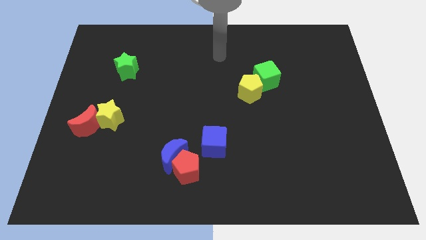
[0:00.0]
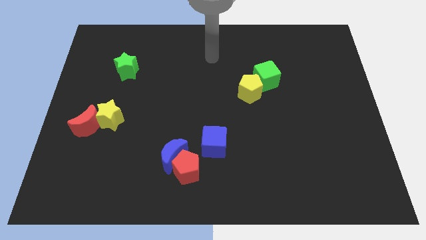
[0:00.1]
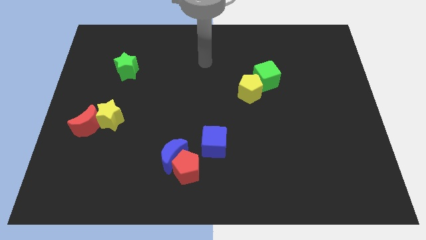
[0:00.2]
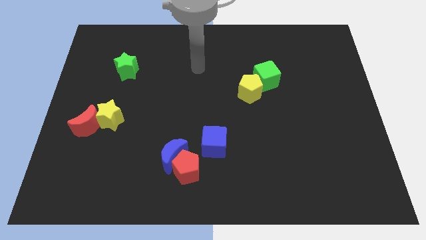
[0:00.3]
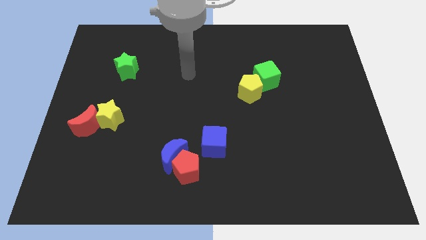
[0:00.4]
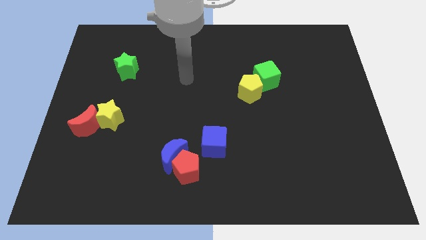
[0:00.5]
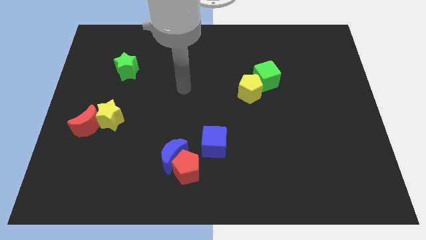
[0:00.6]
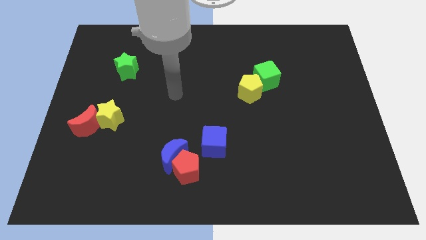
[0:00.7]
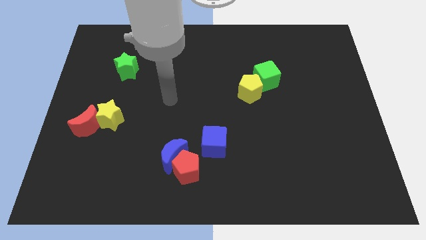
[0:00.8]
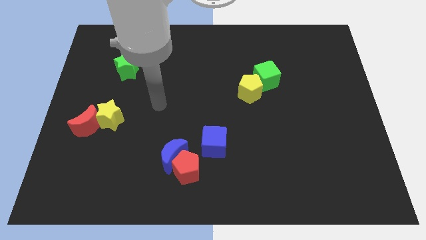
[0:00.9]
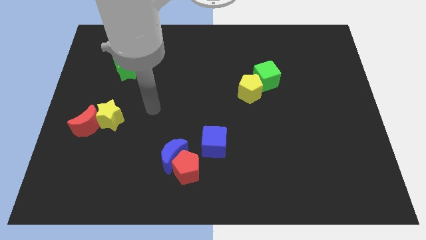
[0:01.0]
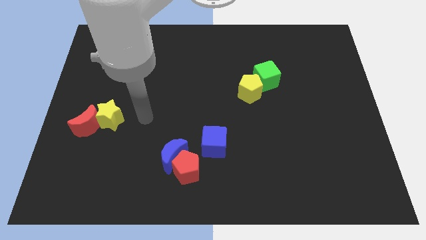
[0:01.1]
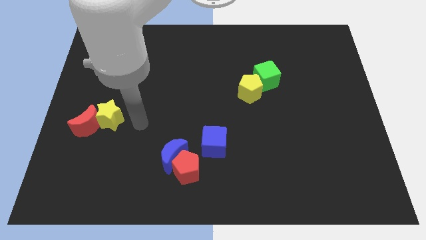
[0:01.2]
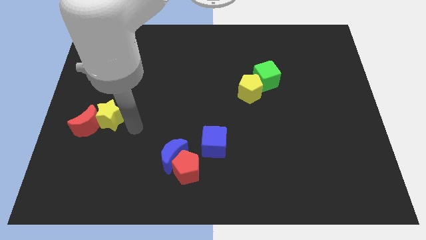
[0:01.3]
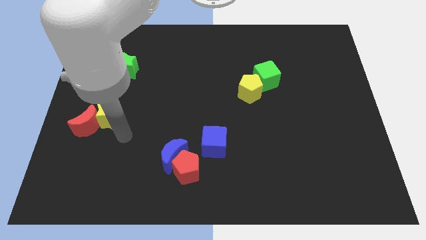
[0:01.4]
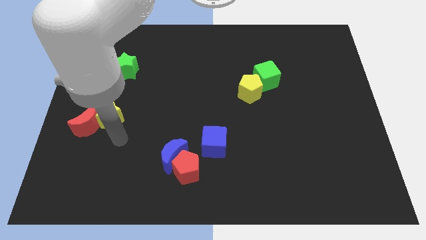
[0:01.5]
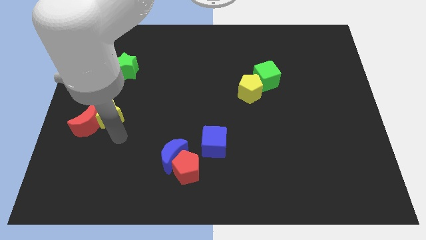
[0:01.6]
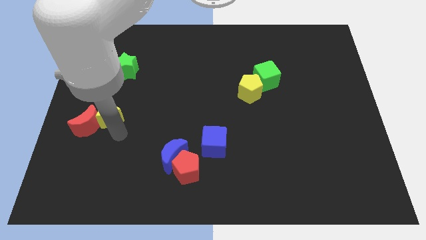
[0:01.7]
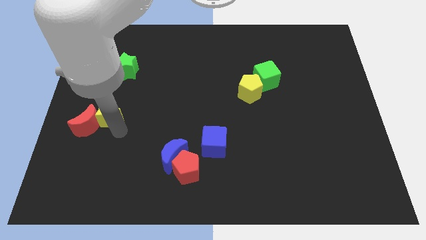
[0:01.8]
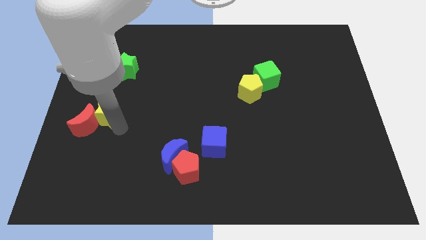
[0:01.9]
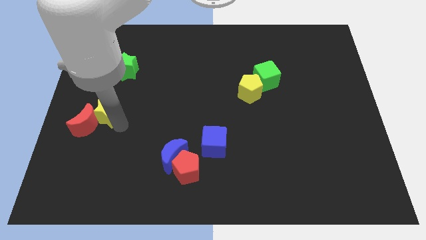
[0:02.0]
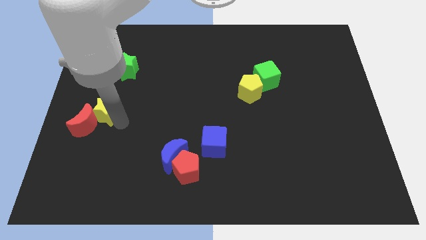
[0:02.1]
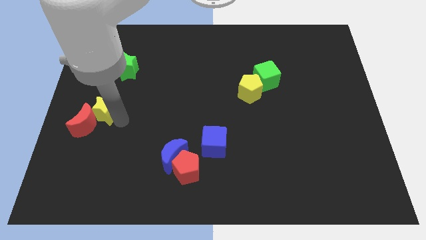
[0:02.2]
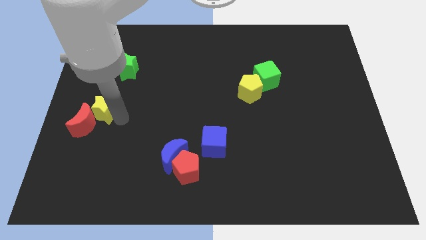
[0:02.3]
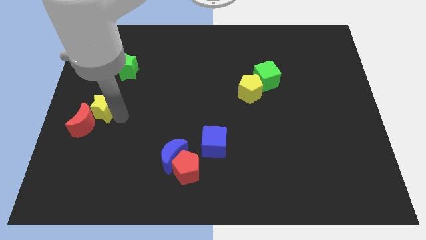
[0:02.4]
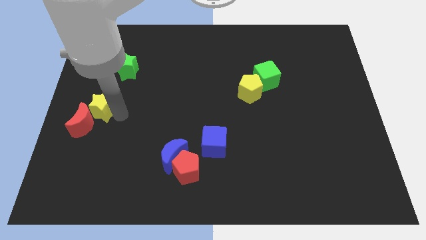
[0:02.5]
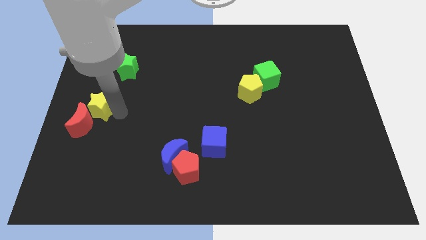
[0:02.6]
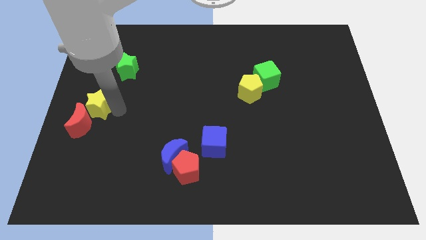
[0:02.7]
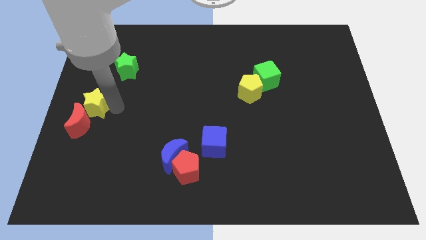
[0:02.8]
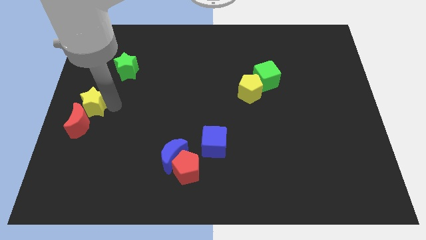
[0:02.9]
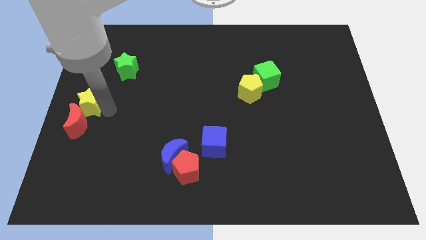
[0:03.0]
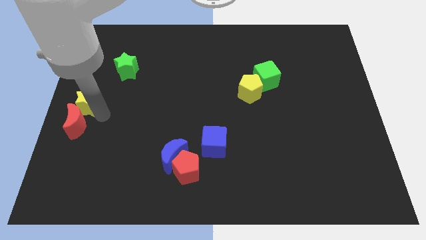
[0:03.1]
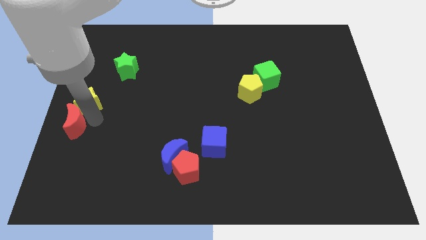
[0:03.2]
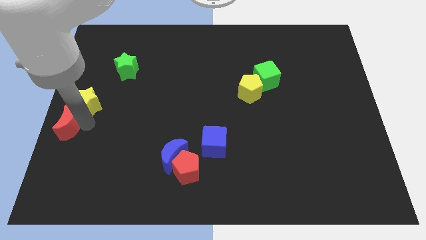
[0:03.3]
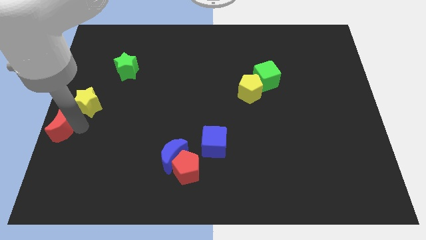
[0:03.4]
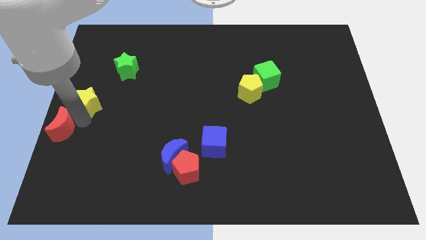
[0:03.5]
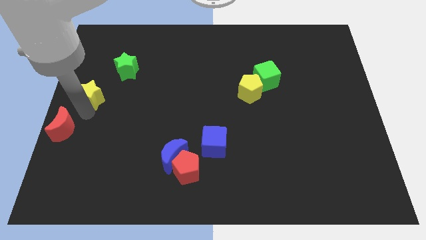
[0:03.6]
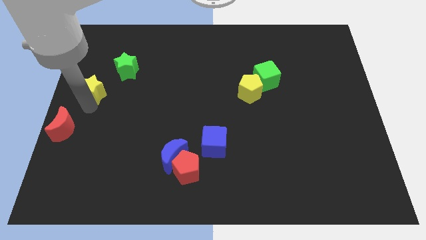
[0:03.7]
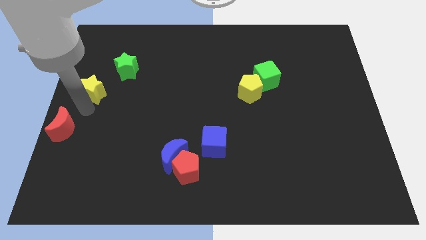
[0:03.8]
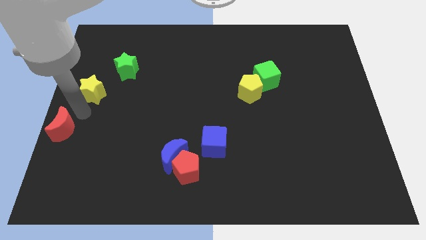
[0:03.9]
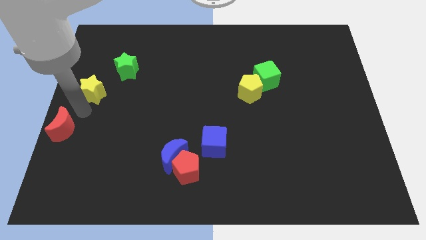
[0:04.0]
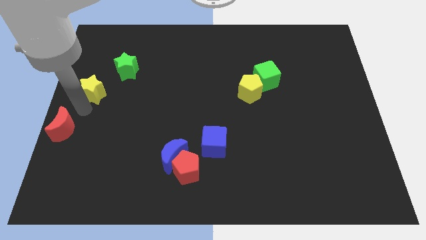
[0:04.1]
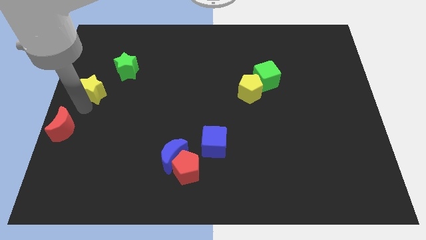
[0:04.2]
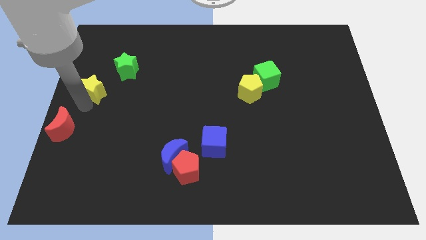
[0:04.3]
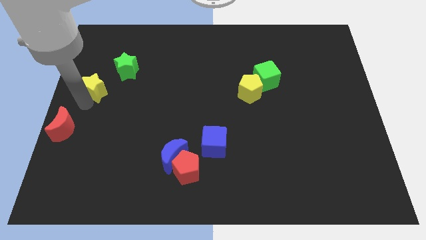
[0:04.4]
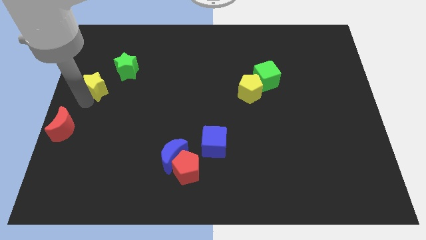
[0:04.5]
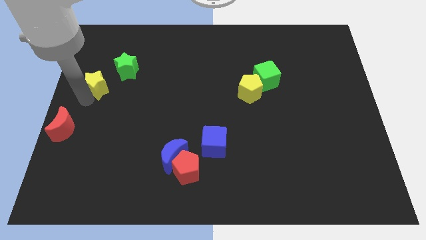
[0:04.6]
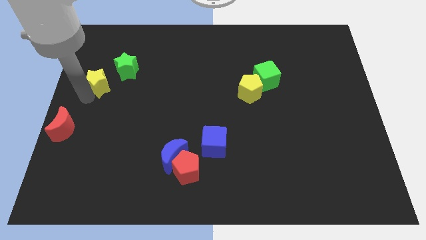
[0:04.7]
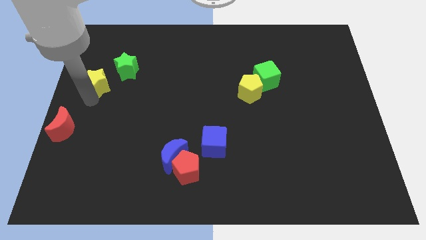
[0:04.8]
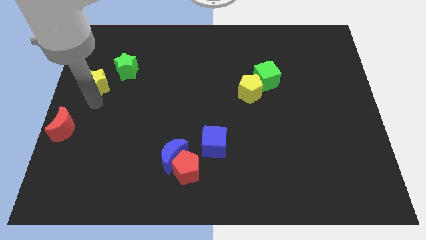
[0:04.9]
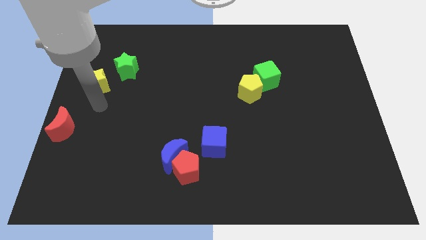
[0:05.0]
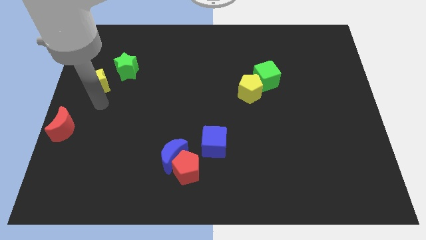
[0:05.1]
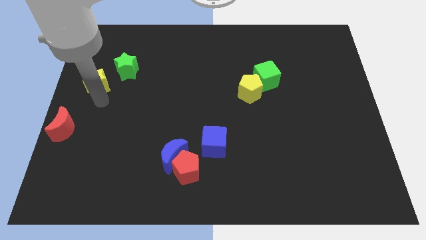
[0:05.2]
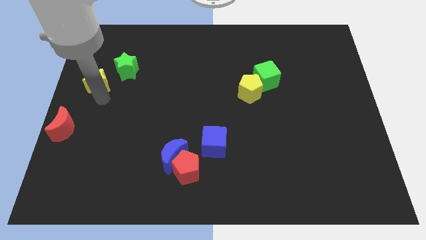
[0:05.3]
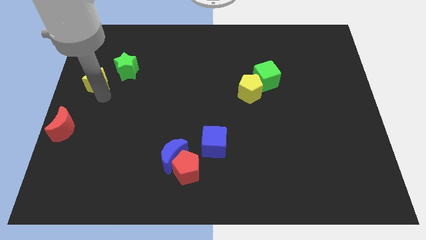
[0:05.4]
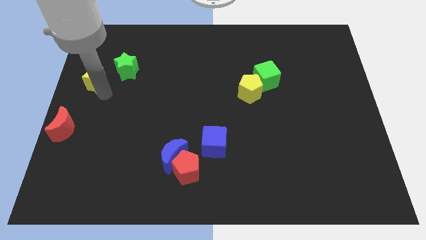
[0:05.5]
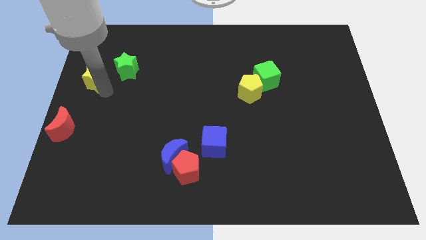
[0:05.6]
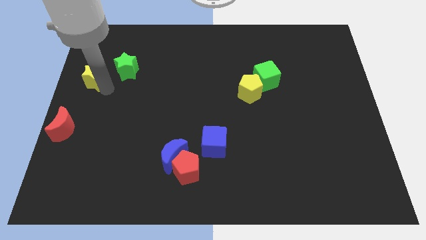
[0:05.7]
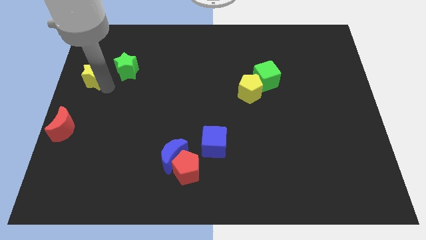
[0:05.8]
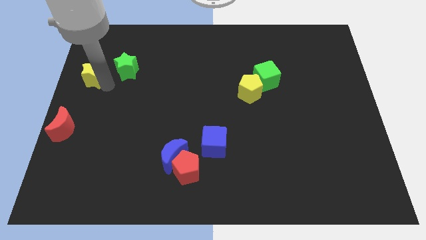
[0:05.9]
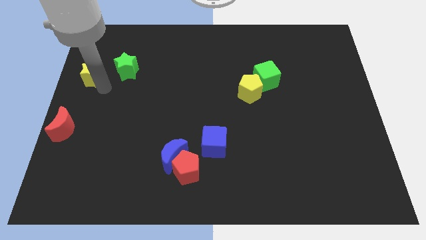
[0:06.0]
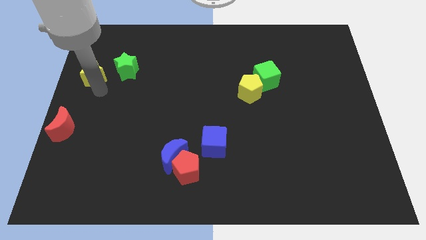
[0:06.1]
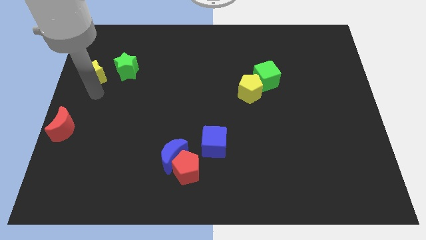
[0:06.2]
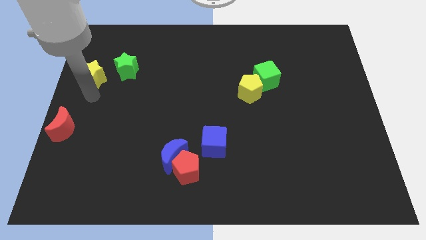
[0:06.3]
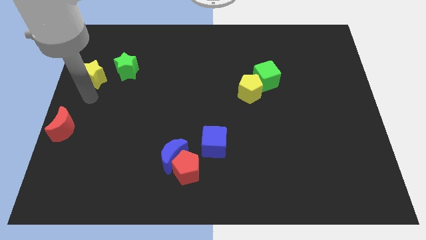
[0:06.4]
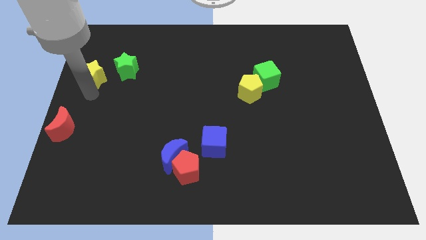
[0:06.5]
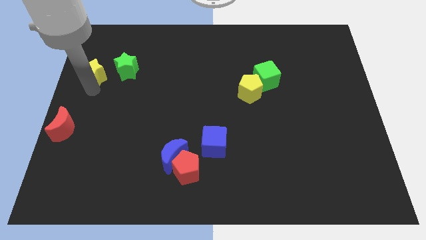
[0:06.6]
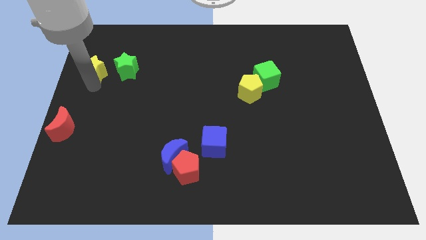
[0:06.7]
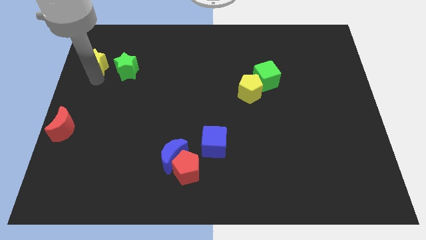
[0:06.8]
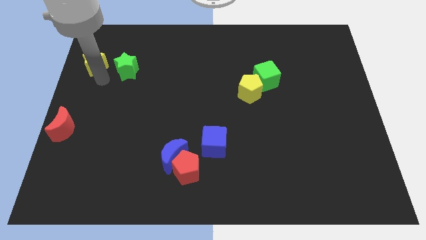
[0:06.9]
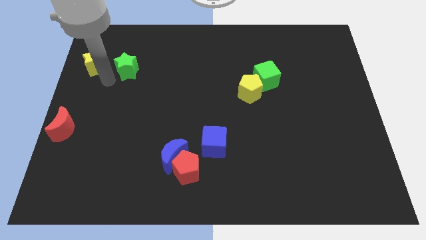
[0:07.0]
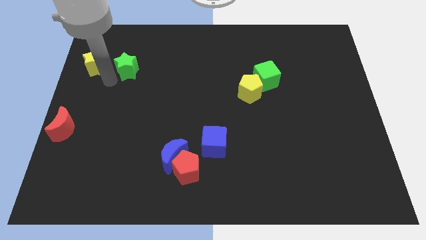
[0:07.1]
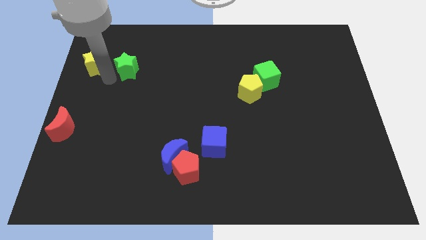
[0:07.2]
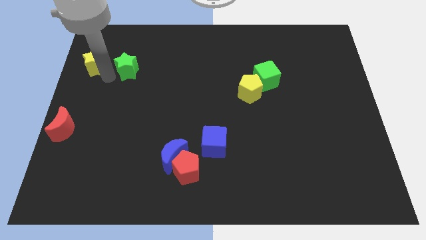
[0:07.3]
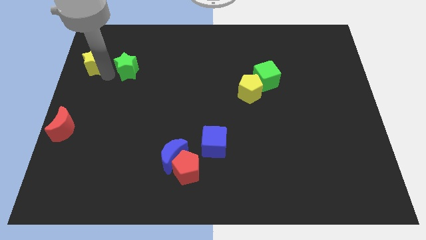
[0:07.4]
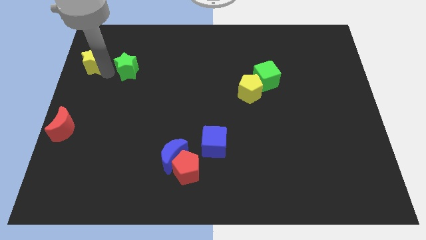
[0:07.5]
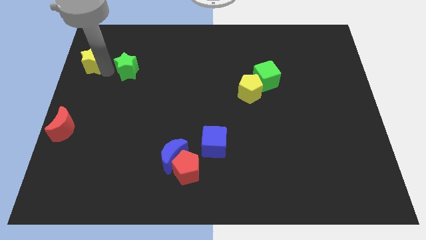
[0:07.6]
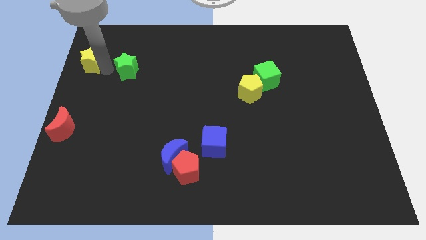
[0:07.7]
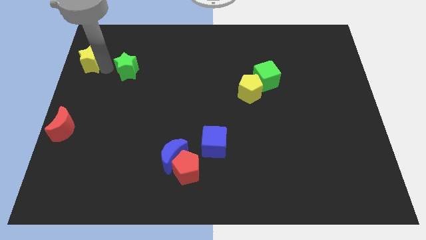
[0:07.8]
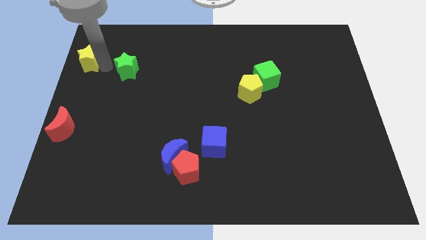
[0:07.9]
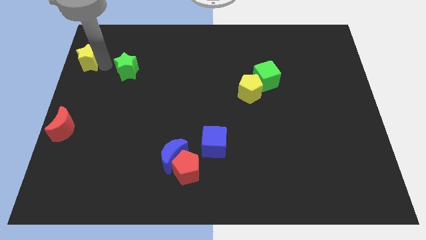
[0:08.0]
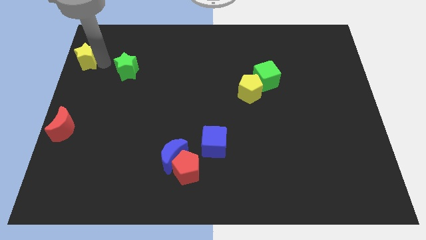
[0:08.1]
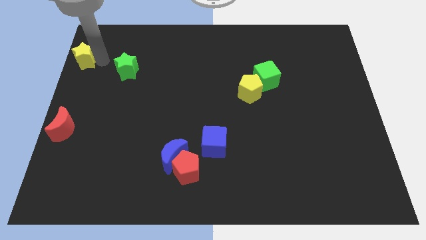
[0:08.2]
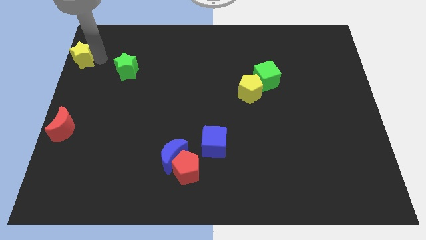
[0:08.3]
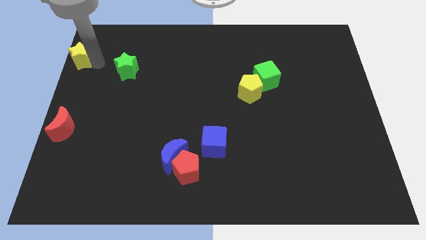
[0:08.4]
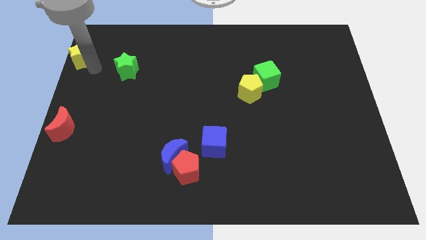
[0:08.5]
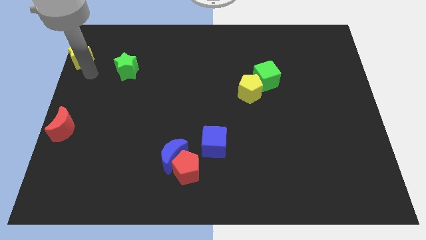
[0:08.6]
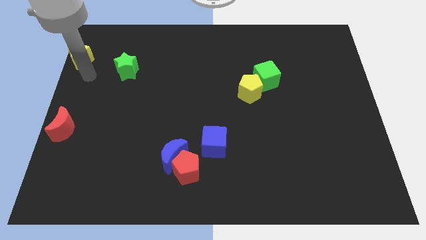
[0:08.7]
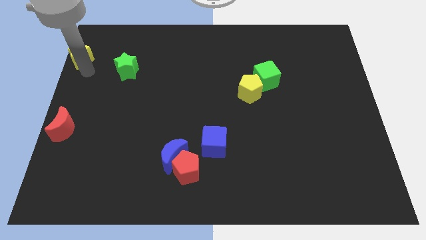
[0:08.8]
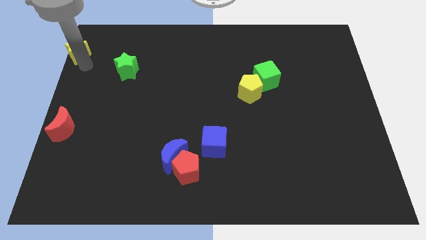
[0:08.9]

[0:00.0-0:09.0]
move the yellow star to the top left of the board
